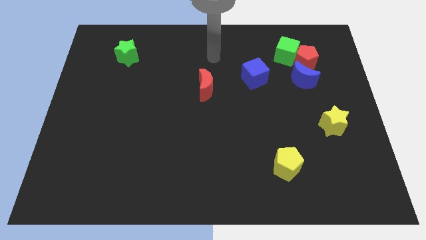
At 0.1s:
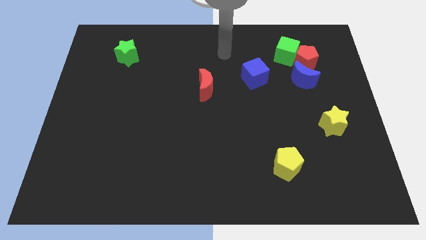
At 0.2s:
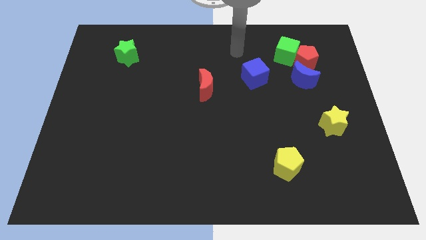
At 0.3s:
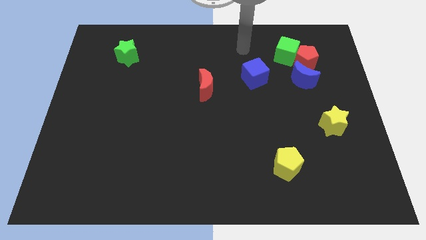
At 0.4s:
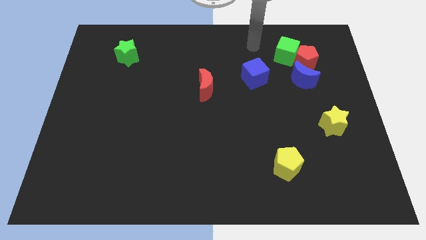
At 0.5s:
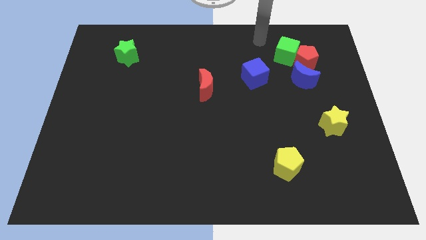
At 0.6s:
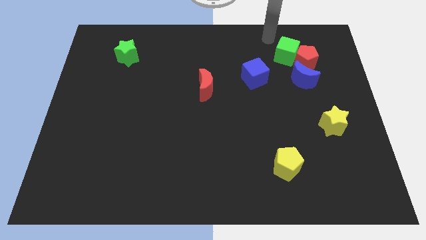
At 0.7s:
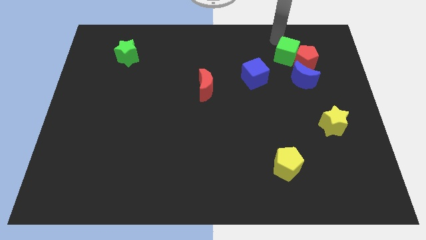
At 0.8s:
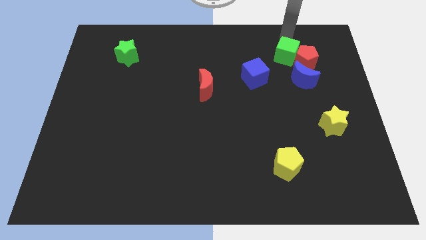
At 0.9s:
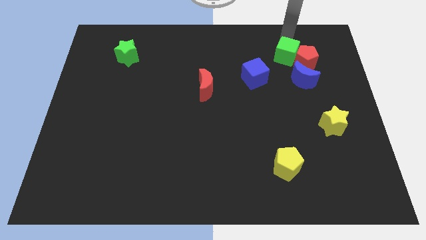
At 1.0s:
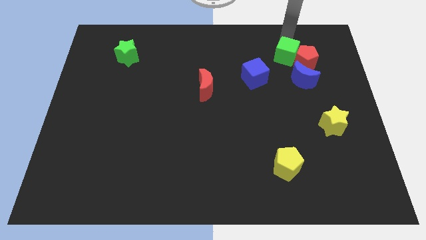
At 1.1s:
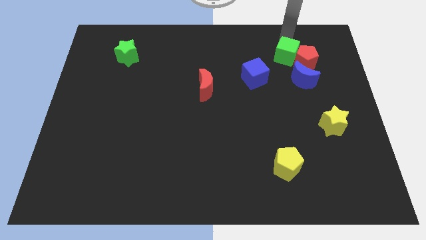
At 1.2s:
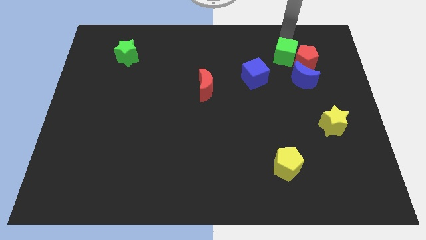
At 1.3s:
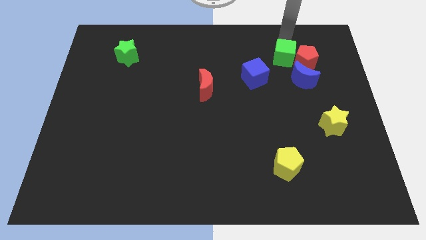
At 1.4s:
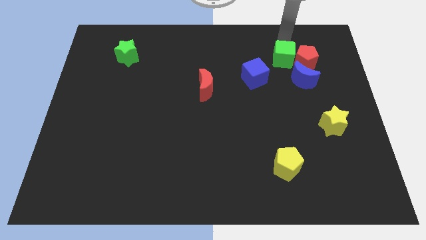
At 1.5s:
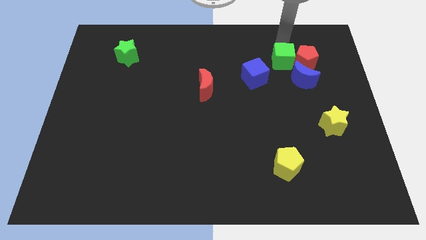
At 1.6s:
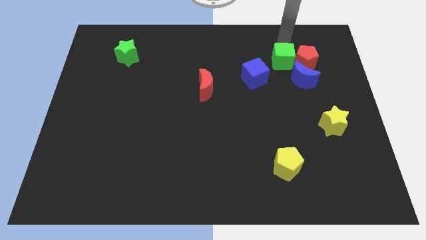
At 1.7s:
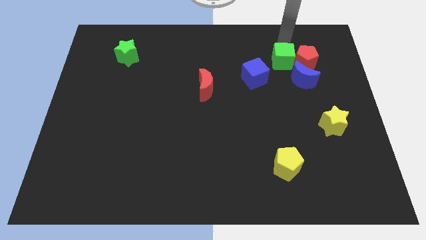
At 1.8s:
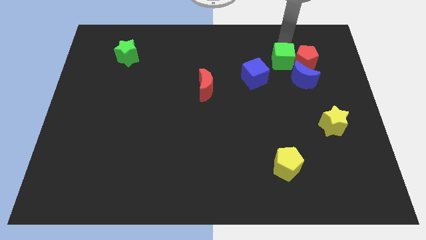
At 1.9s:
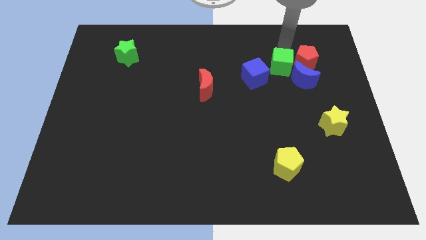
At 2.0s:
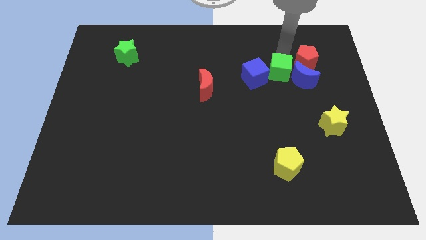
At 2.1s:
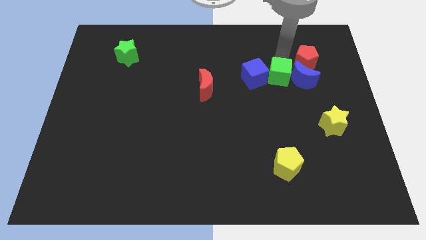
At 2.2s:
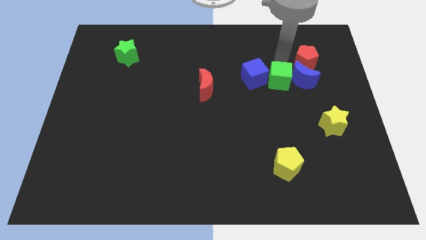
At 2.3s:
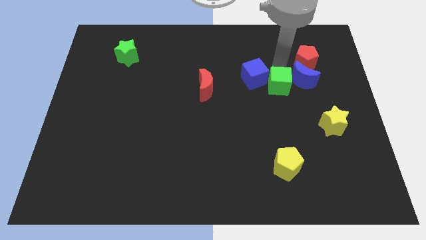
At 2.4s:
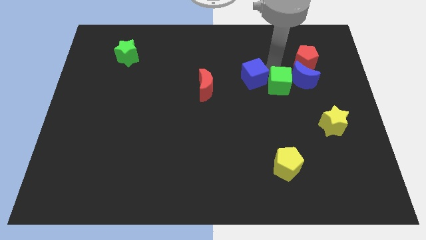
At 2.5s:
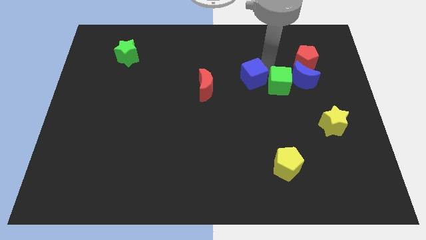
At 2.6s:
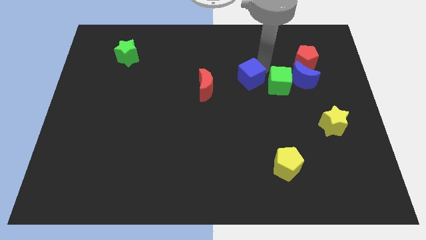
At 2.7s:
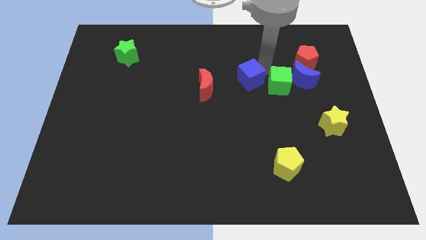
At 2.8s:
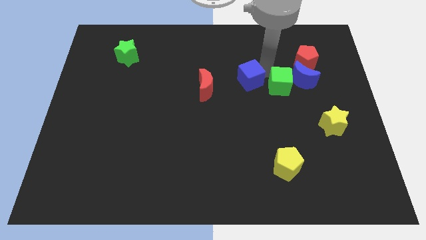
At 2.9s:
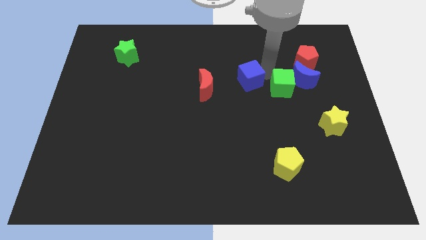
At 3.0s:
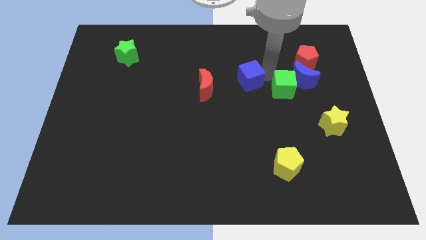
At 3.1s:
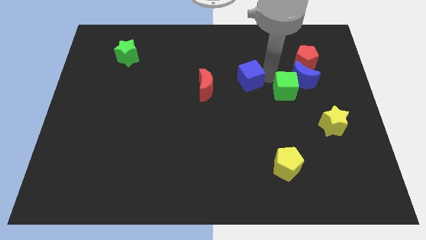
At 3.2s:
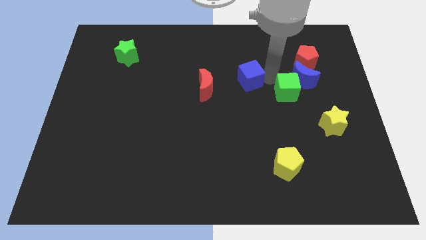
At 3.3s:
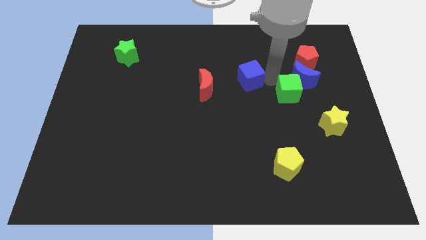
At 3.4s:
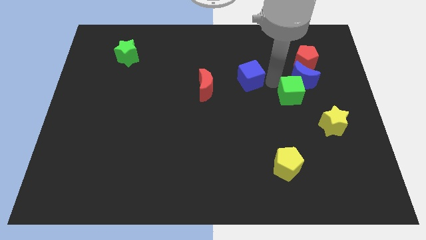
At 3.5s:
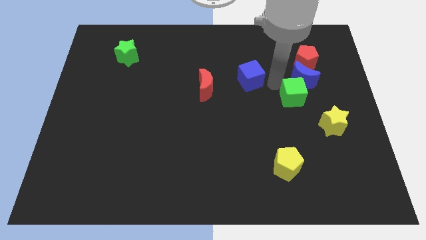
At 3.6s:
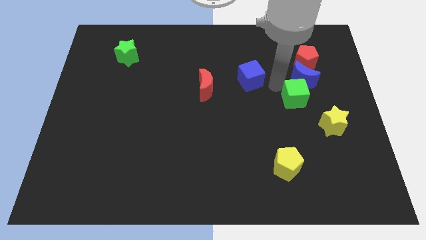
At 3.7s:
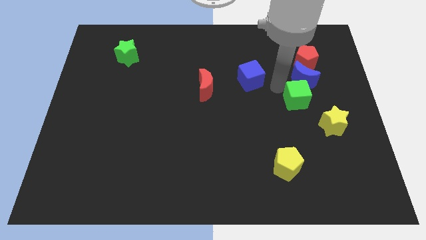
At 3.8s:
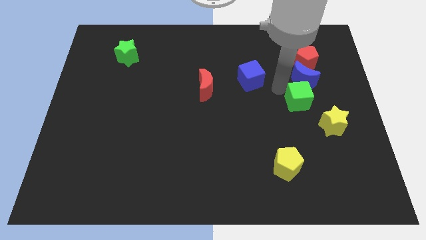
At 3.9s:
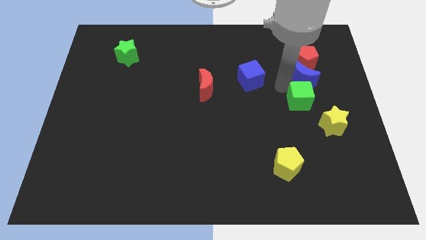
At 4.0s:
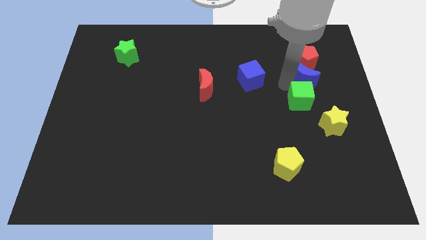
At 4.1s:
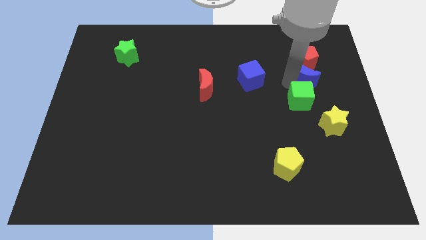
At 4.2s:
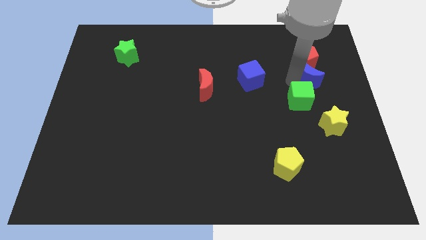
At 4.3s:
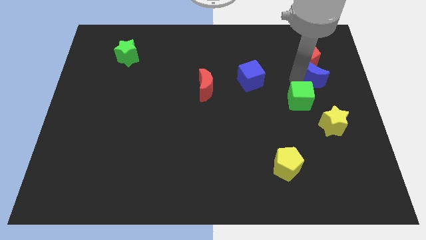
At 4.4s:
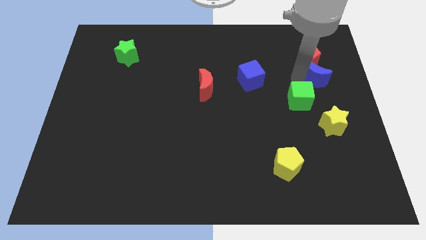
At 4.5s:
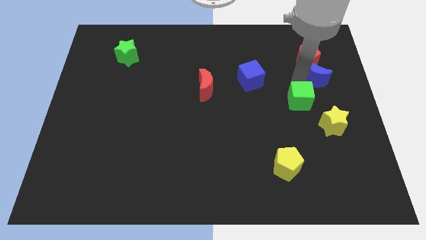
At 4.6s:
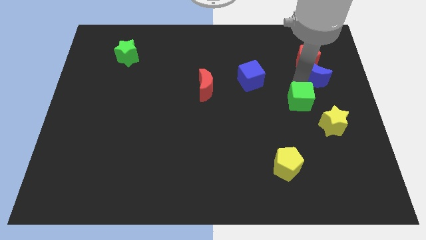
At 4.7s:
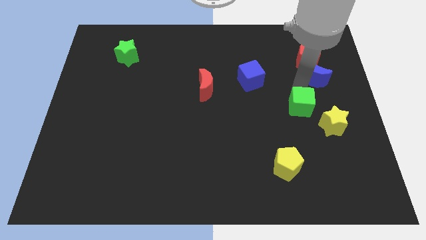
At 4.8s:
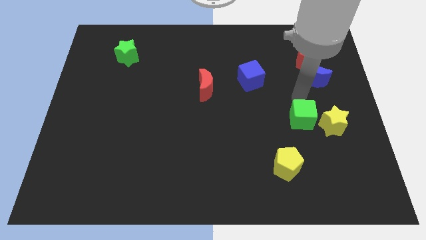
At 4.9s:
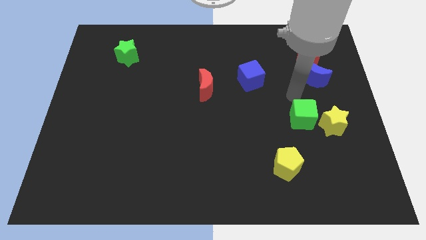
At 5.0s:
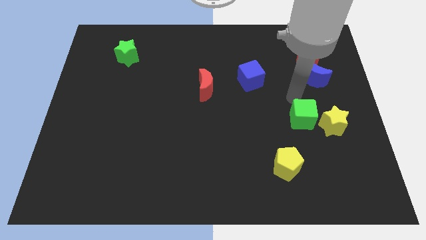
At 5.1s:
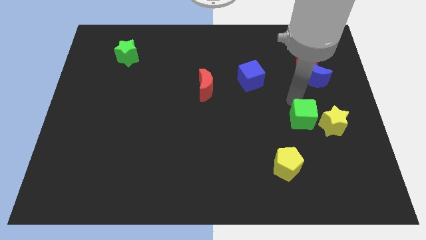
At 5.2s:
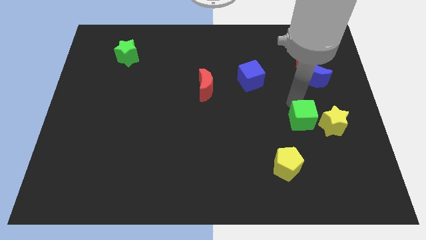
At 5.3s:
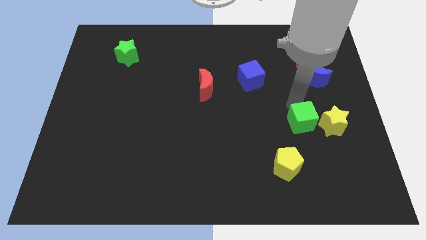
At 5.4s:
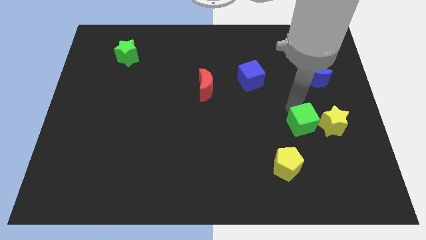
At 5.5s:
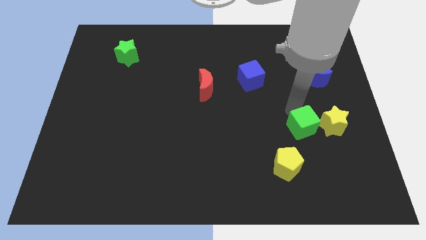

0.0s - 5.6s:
put the green cube to the bottom left of the yellow star

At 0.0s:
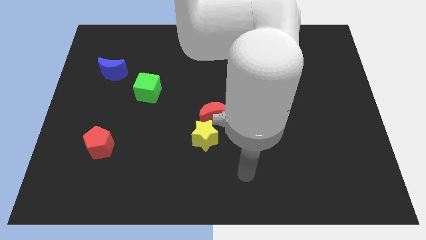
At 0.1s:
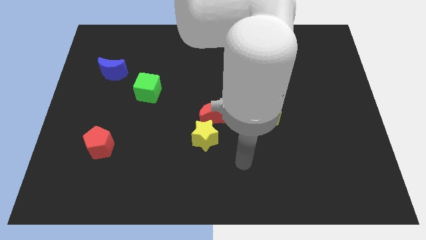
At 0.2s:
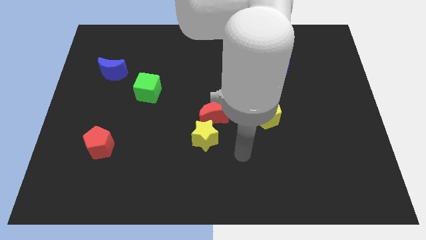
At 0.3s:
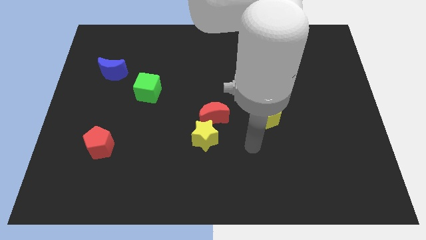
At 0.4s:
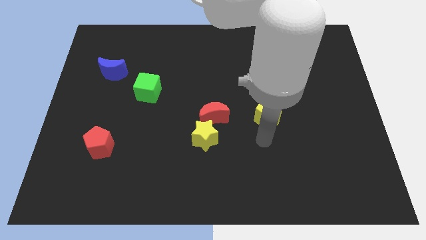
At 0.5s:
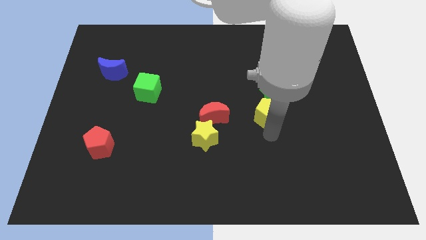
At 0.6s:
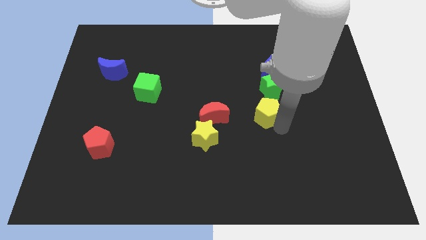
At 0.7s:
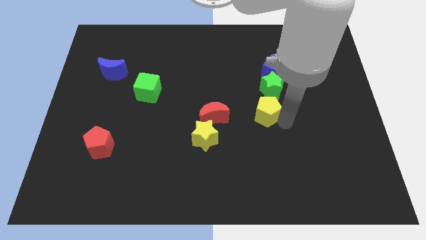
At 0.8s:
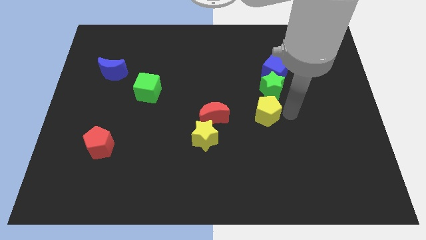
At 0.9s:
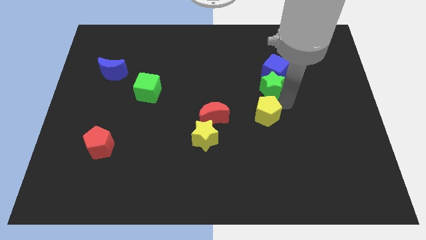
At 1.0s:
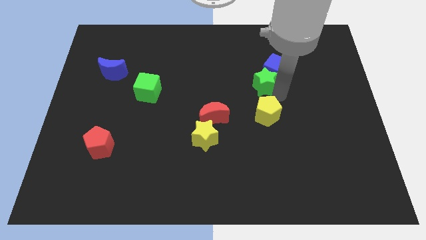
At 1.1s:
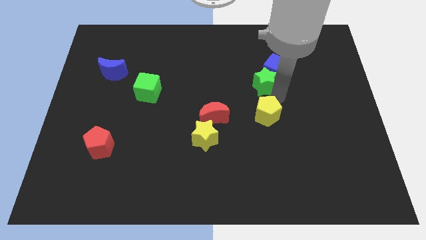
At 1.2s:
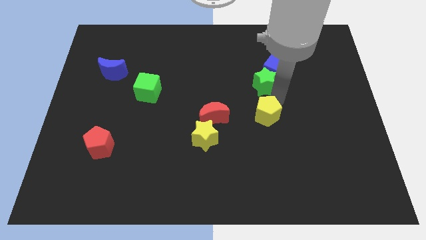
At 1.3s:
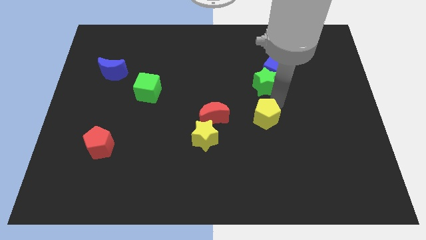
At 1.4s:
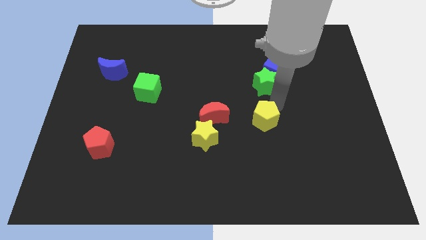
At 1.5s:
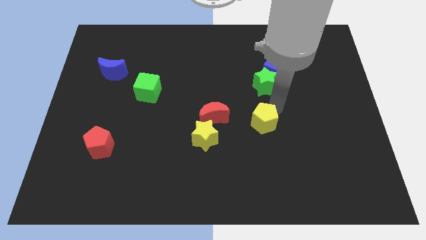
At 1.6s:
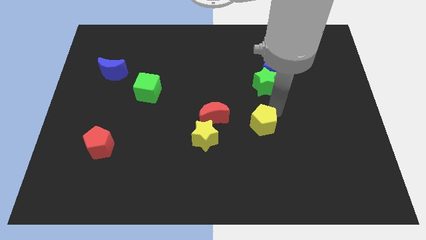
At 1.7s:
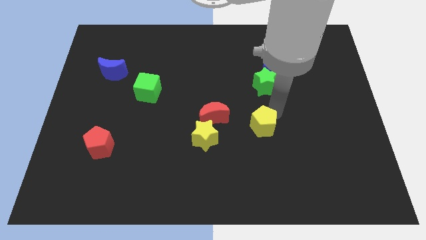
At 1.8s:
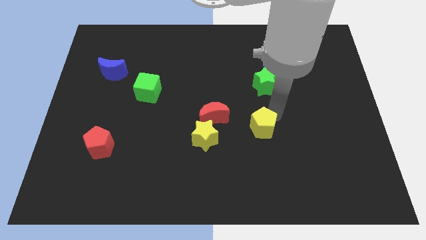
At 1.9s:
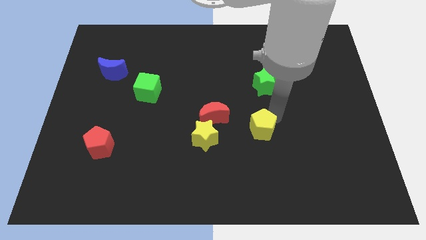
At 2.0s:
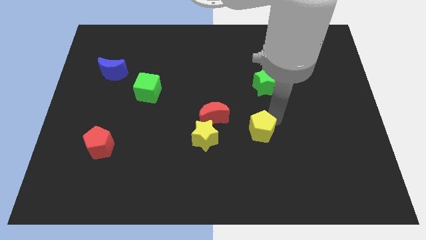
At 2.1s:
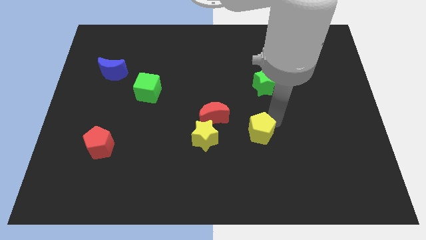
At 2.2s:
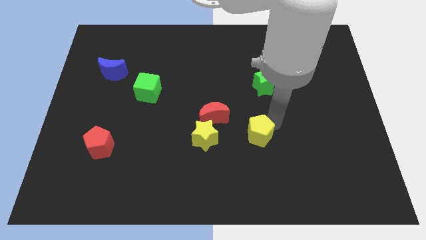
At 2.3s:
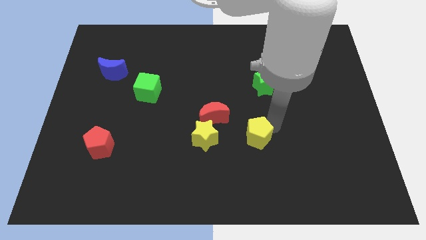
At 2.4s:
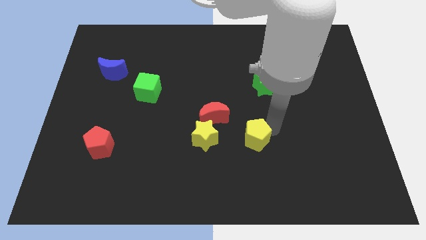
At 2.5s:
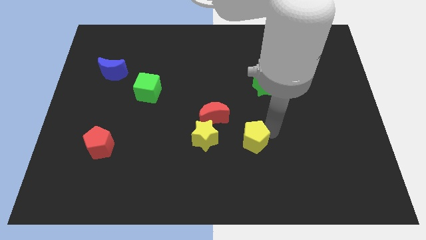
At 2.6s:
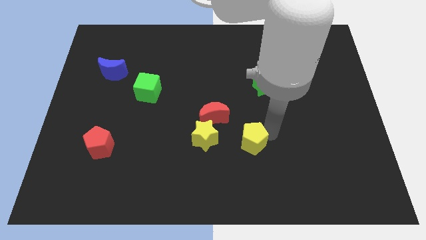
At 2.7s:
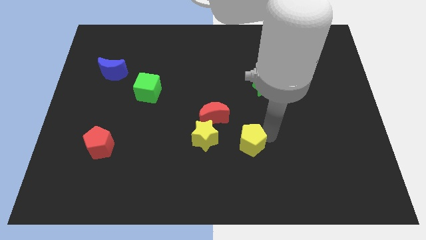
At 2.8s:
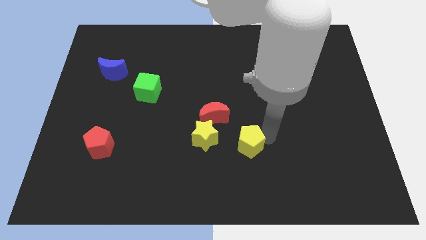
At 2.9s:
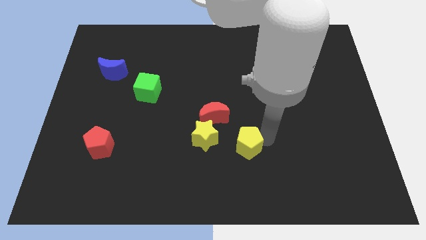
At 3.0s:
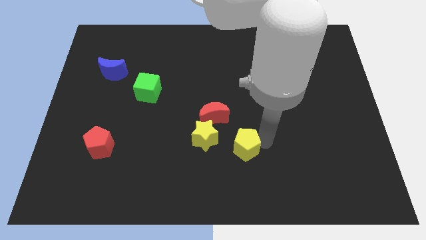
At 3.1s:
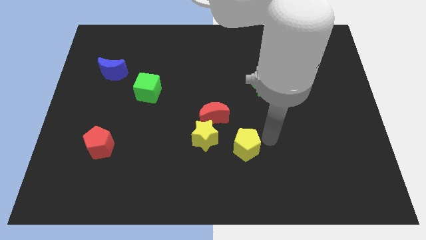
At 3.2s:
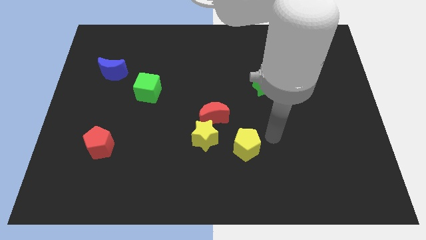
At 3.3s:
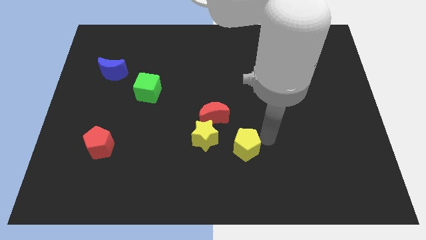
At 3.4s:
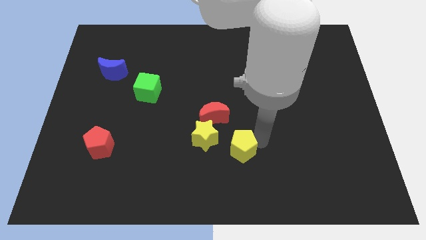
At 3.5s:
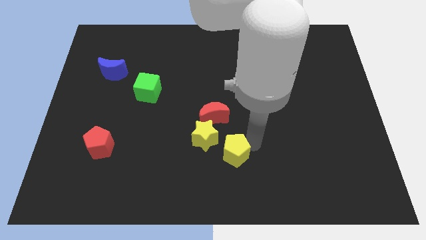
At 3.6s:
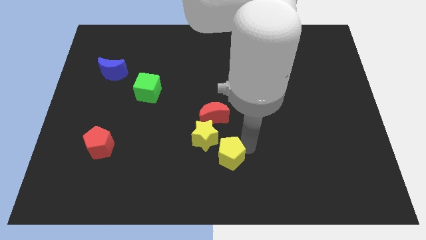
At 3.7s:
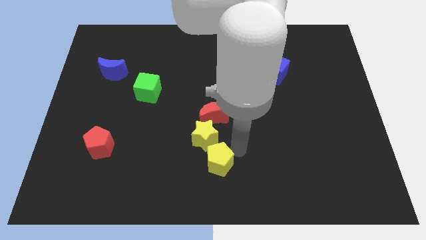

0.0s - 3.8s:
slide the yellow pentagon to the bottom of the yellow star
